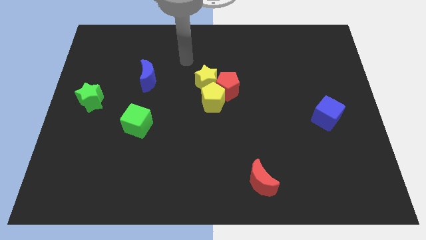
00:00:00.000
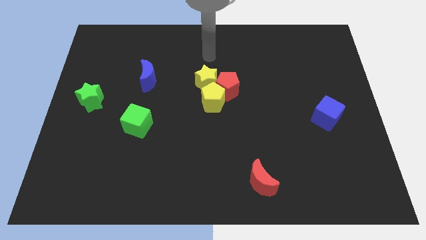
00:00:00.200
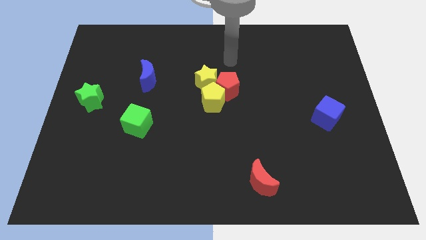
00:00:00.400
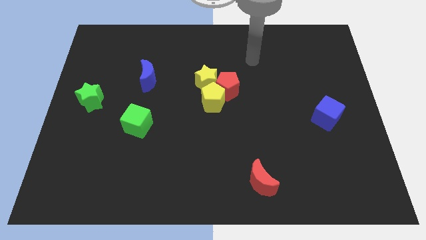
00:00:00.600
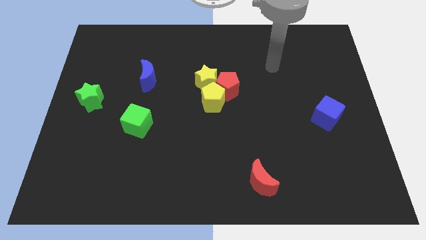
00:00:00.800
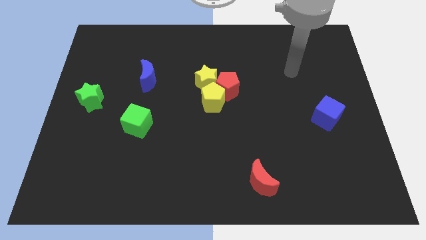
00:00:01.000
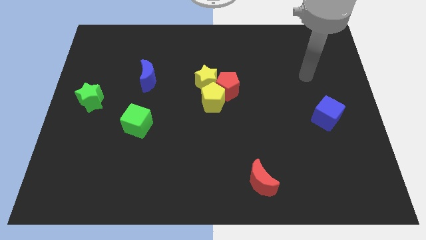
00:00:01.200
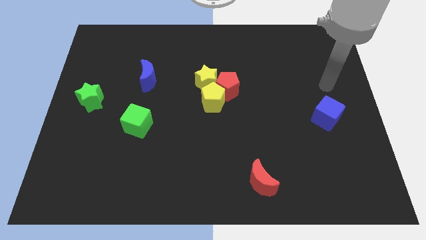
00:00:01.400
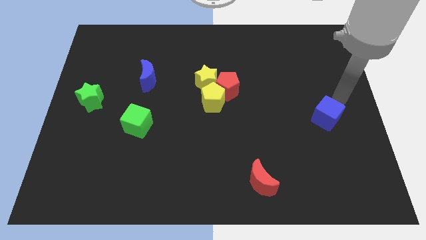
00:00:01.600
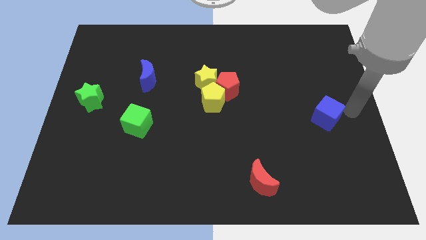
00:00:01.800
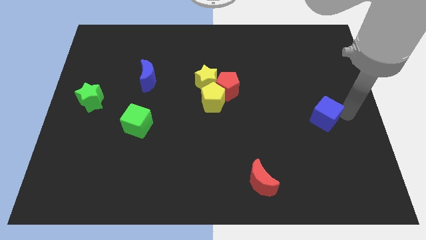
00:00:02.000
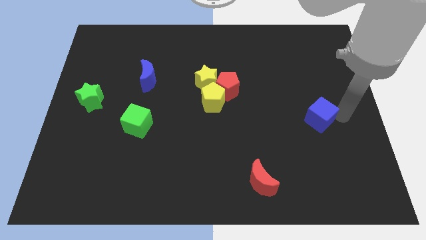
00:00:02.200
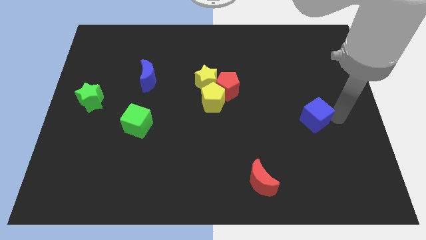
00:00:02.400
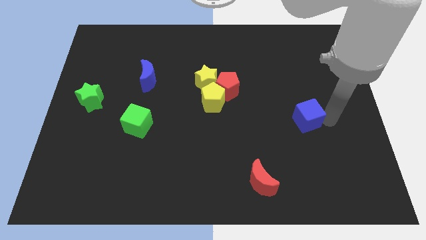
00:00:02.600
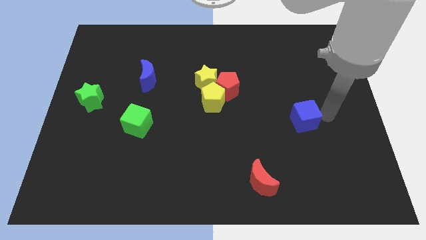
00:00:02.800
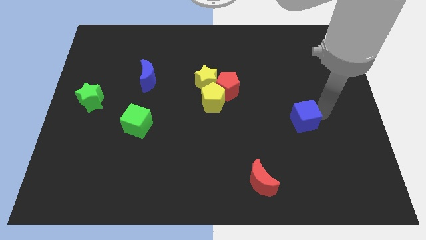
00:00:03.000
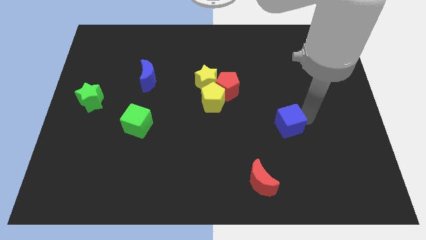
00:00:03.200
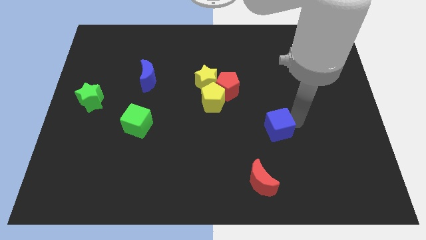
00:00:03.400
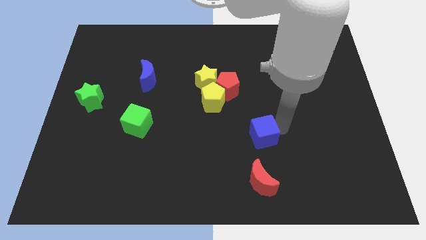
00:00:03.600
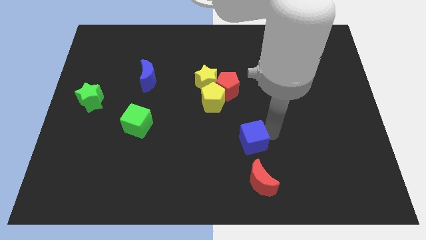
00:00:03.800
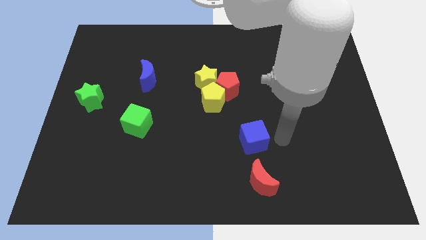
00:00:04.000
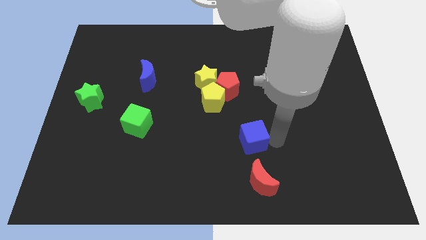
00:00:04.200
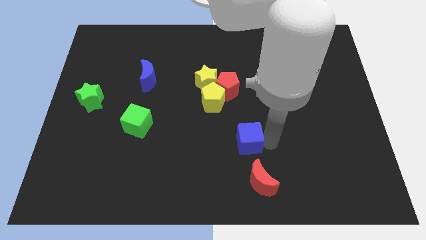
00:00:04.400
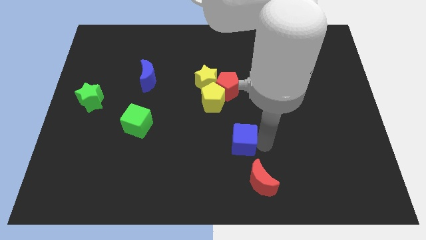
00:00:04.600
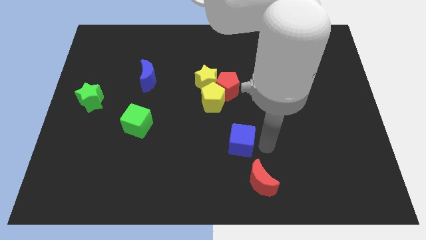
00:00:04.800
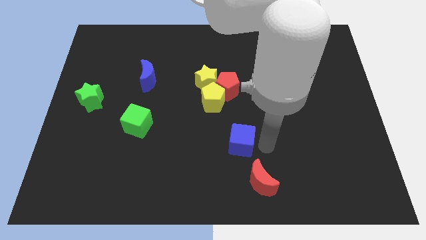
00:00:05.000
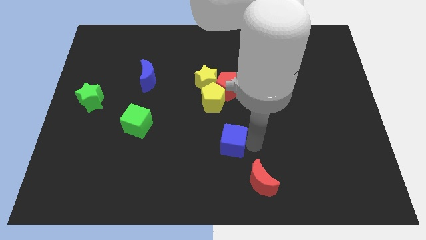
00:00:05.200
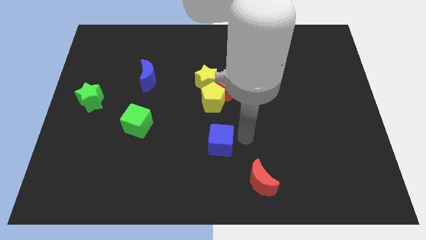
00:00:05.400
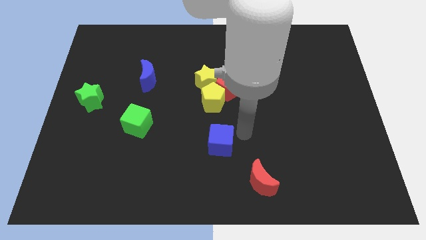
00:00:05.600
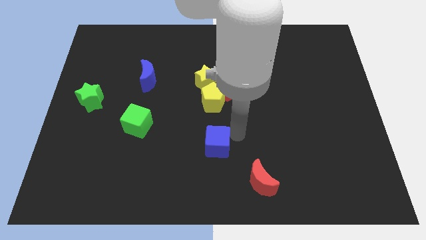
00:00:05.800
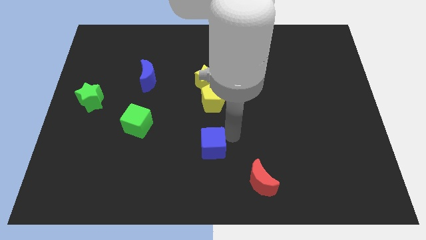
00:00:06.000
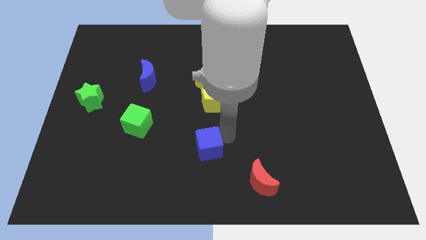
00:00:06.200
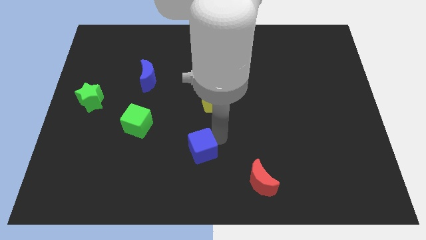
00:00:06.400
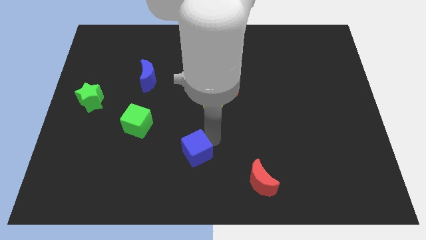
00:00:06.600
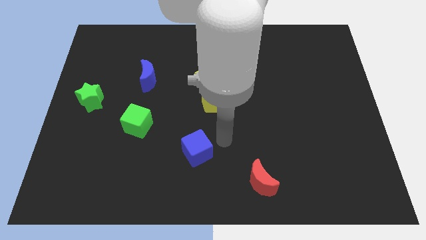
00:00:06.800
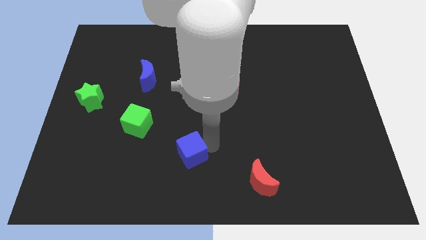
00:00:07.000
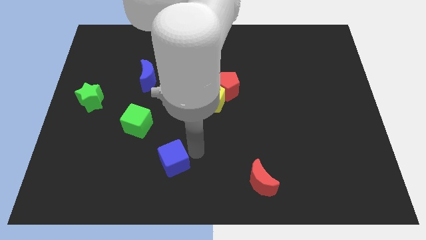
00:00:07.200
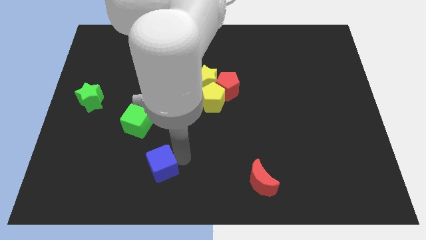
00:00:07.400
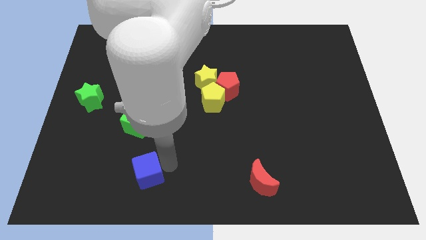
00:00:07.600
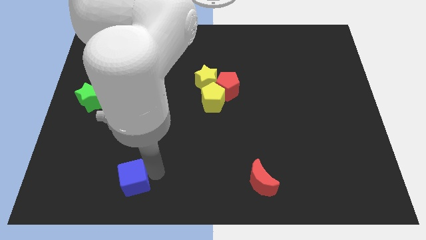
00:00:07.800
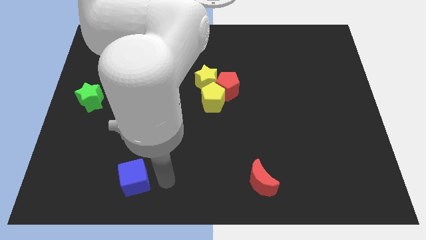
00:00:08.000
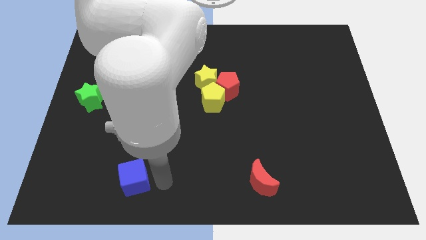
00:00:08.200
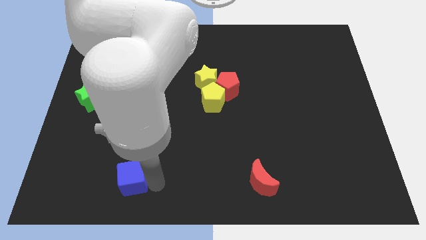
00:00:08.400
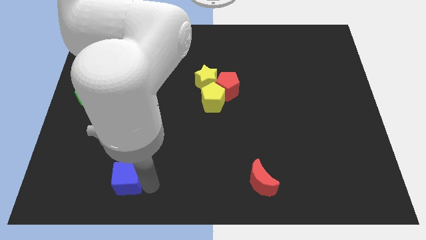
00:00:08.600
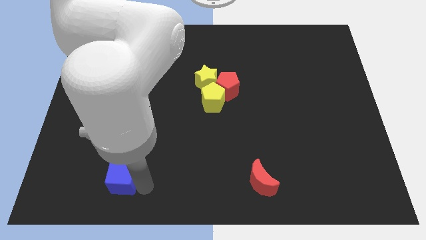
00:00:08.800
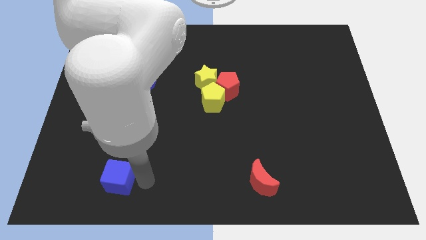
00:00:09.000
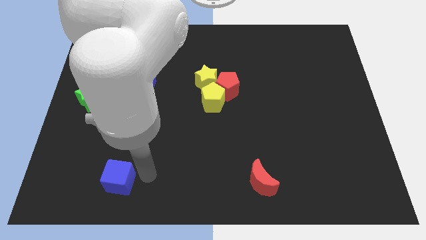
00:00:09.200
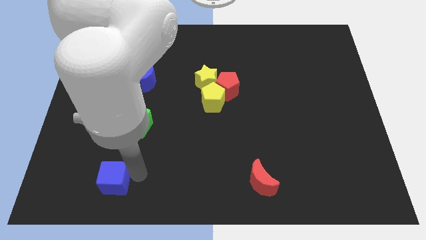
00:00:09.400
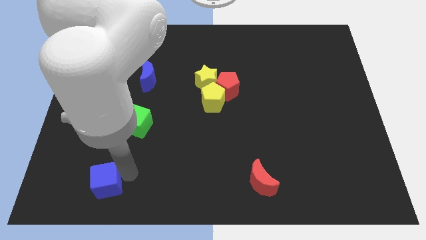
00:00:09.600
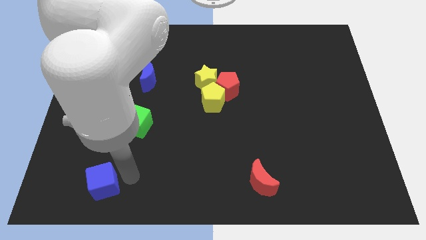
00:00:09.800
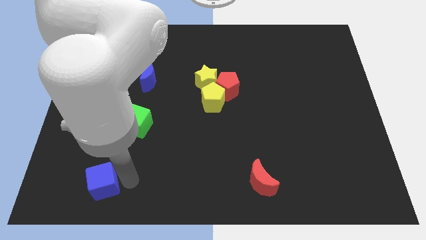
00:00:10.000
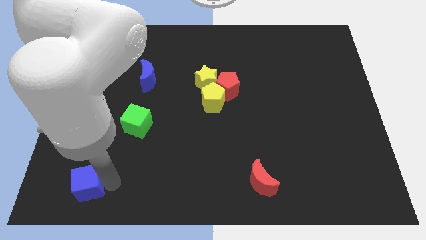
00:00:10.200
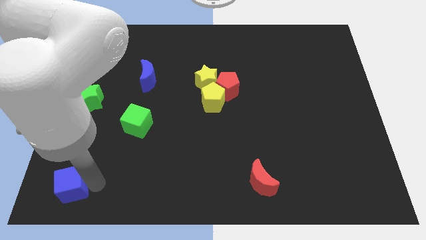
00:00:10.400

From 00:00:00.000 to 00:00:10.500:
slide the blue cube to the lower left corner

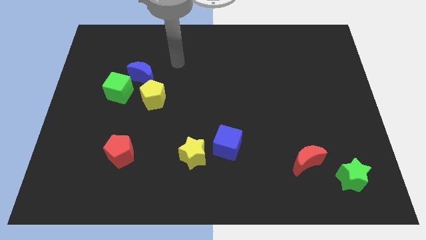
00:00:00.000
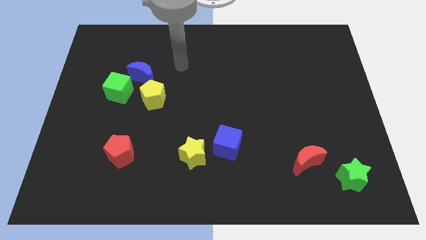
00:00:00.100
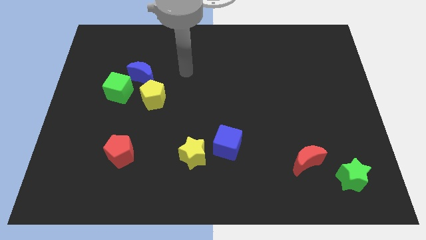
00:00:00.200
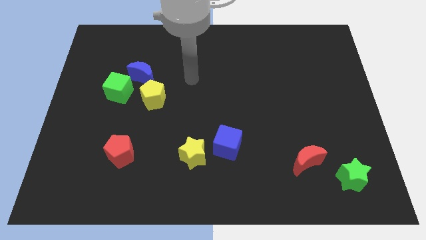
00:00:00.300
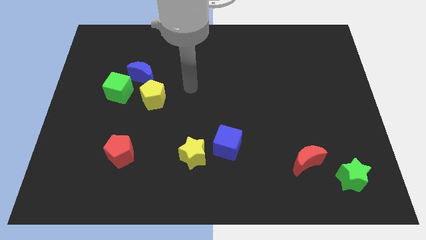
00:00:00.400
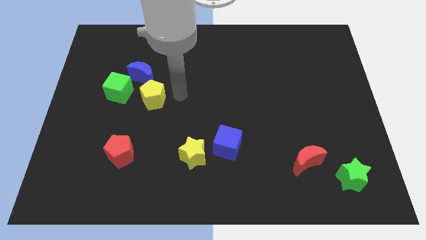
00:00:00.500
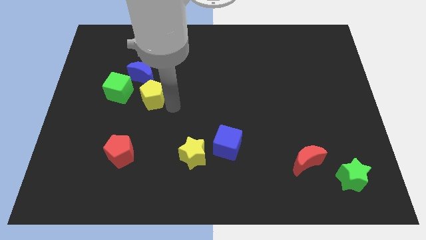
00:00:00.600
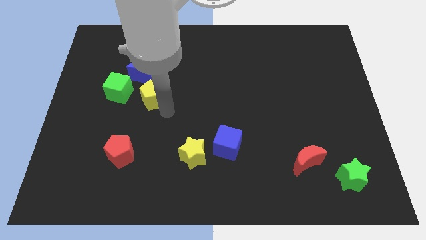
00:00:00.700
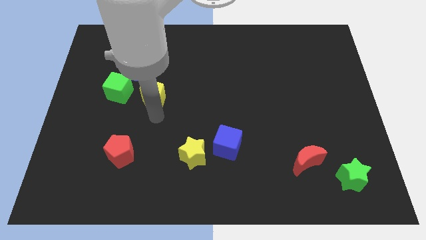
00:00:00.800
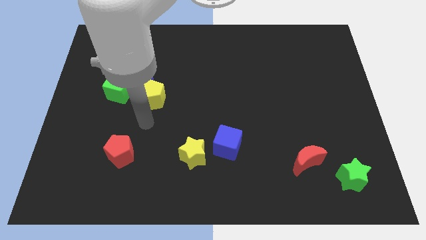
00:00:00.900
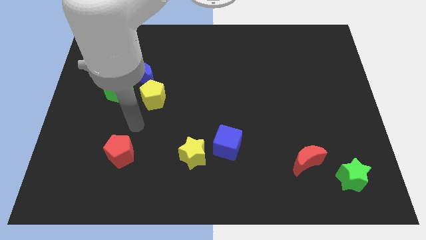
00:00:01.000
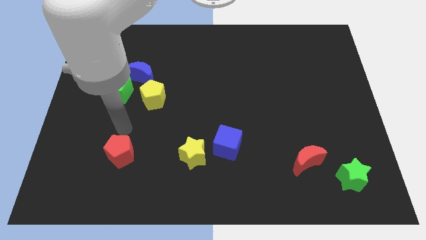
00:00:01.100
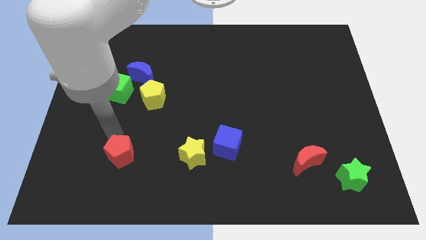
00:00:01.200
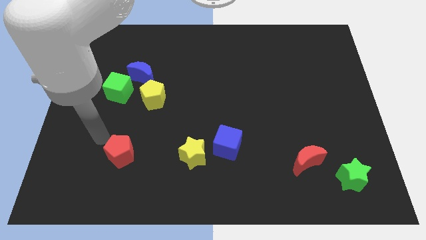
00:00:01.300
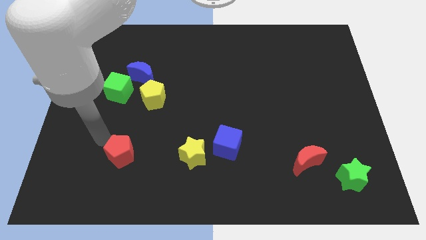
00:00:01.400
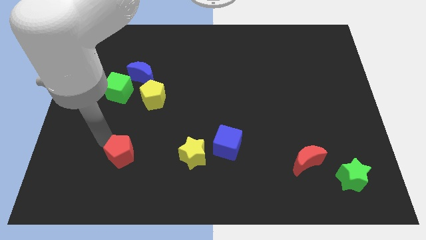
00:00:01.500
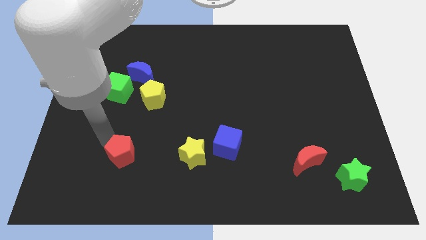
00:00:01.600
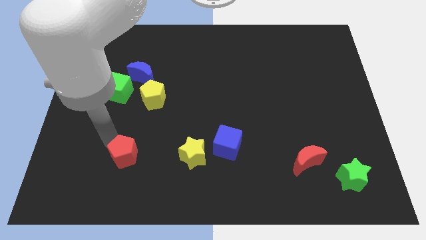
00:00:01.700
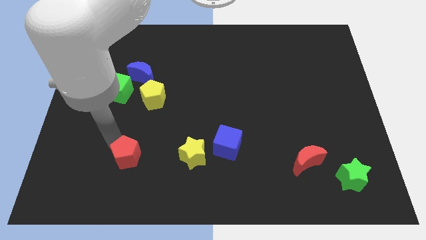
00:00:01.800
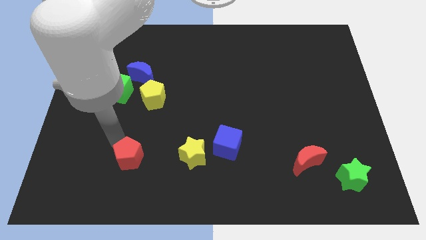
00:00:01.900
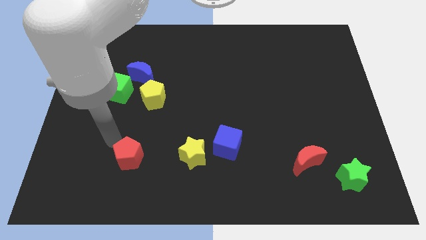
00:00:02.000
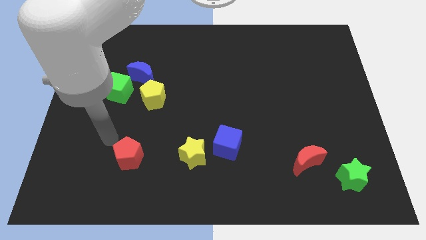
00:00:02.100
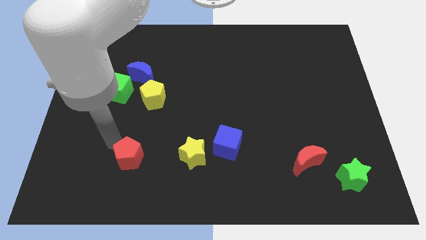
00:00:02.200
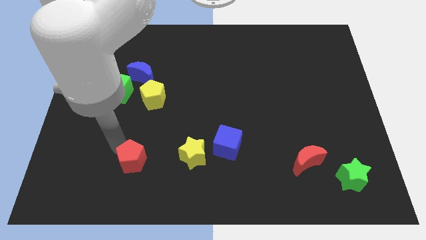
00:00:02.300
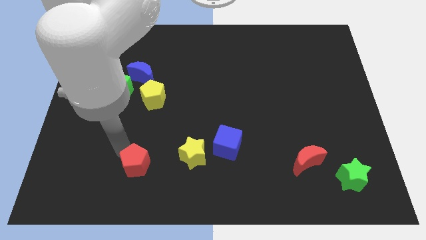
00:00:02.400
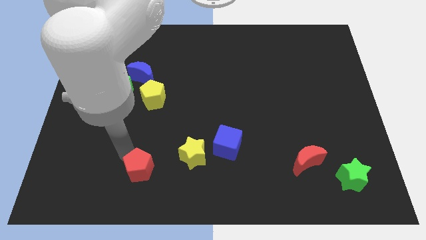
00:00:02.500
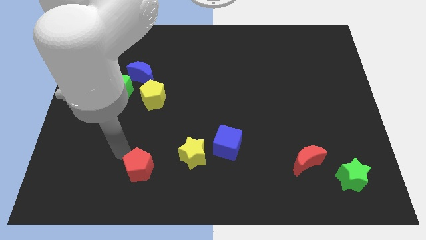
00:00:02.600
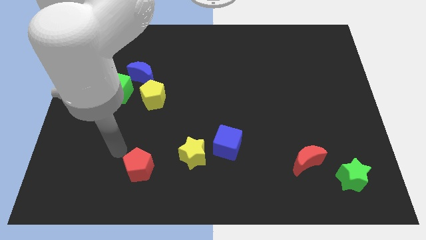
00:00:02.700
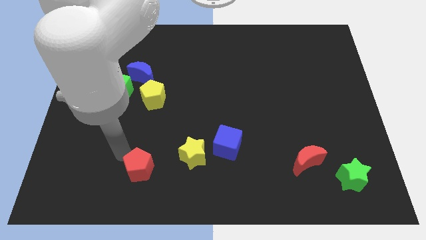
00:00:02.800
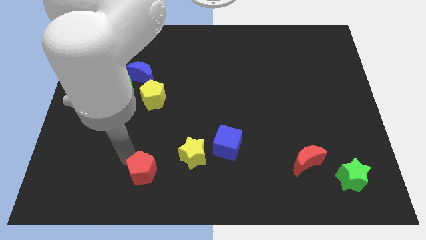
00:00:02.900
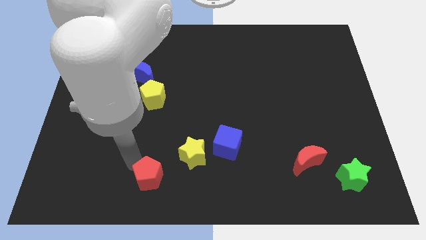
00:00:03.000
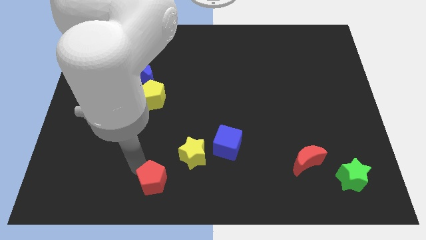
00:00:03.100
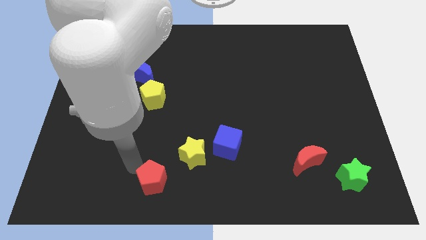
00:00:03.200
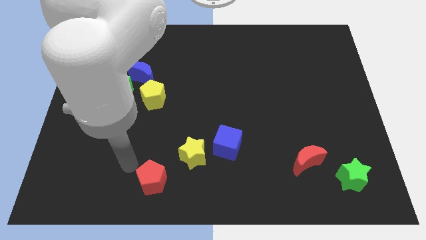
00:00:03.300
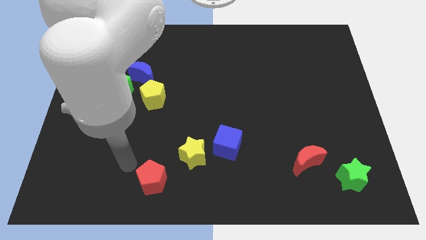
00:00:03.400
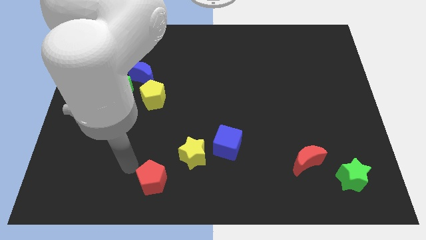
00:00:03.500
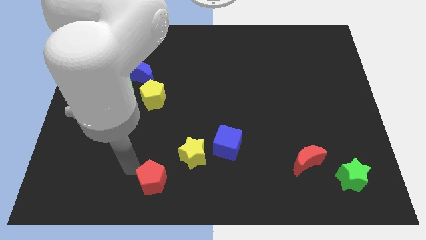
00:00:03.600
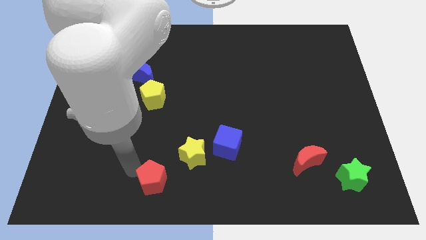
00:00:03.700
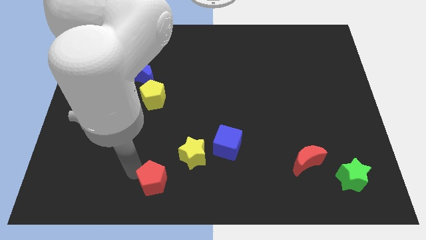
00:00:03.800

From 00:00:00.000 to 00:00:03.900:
slide the red pentagon to the bottom
